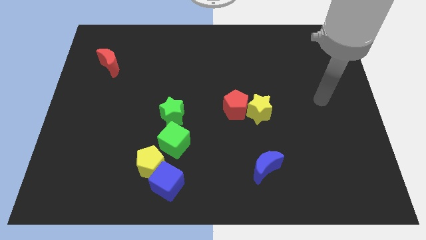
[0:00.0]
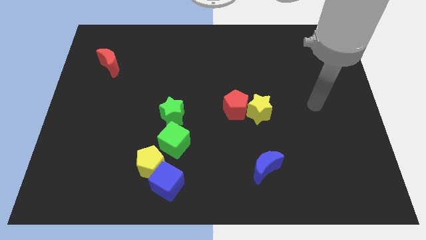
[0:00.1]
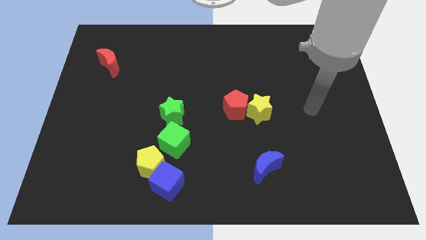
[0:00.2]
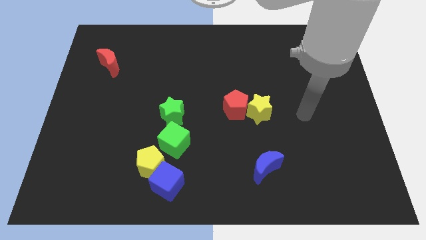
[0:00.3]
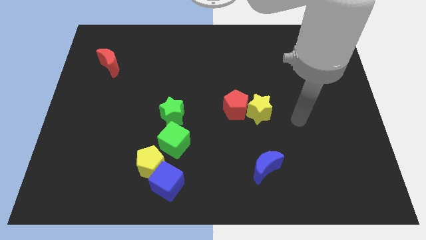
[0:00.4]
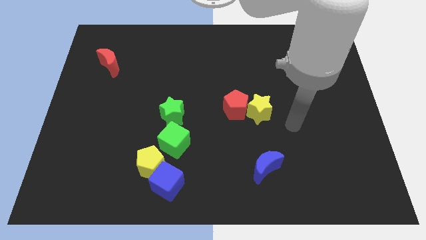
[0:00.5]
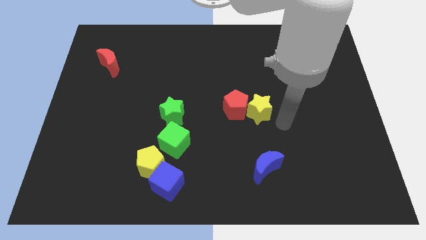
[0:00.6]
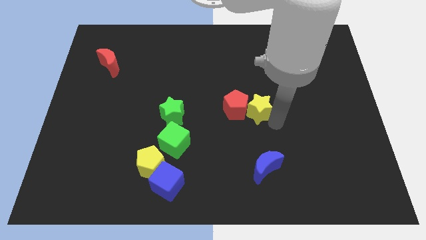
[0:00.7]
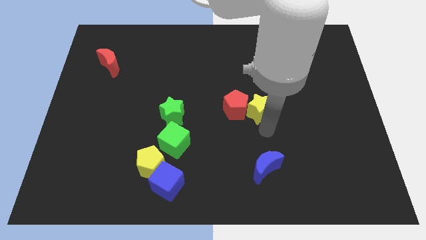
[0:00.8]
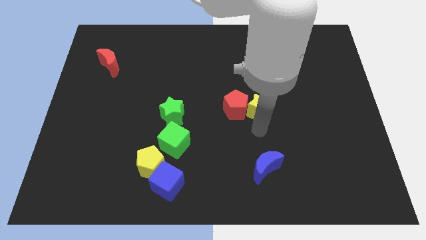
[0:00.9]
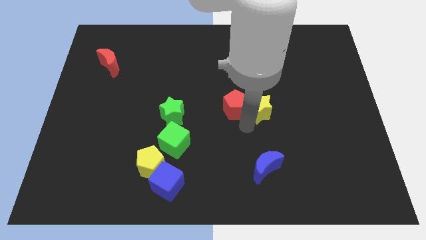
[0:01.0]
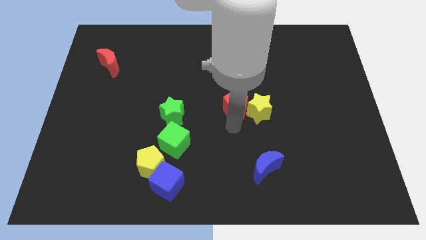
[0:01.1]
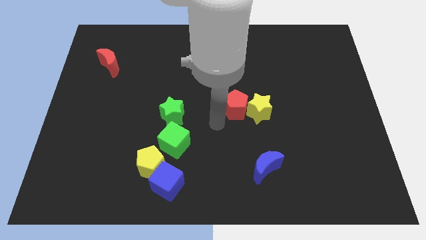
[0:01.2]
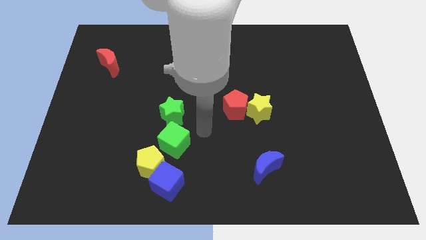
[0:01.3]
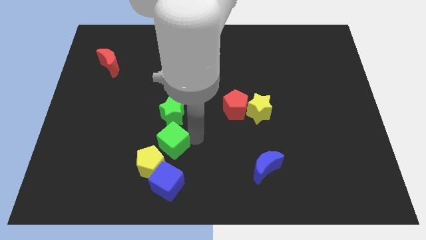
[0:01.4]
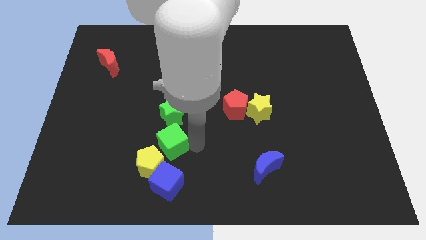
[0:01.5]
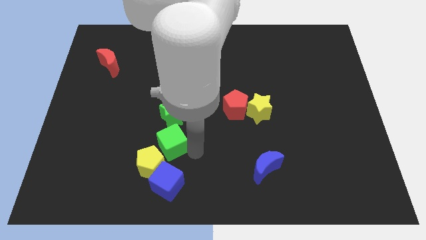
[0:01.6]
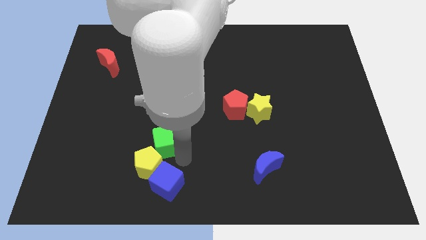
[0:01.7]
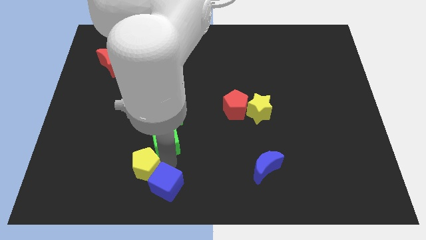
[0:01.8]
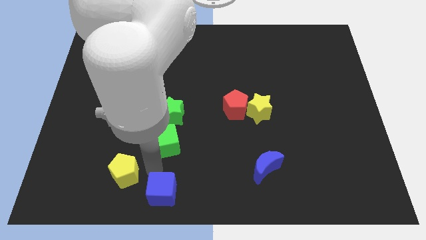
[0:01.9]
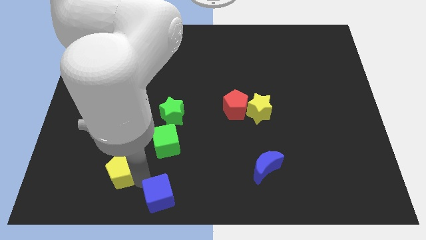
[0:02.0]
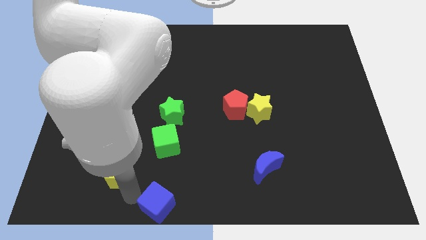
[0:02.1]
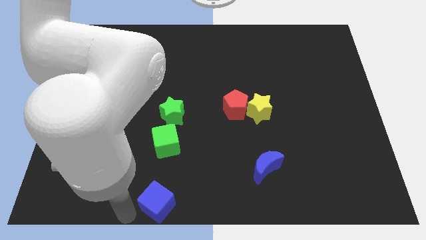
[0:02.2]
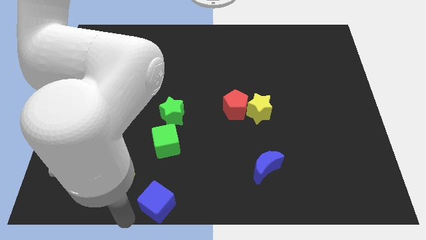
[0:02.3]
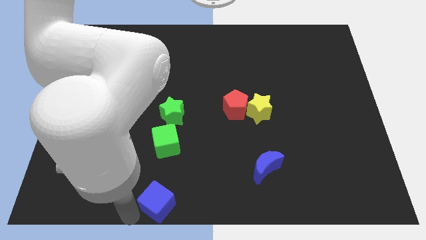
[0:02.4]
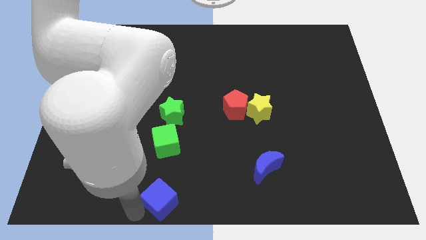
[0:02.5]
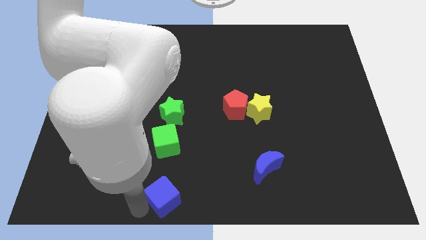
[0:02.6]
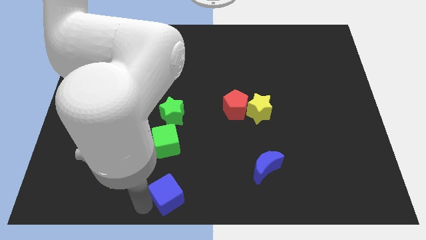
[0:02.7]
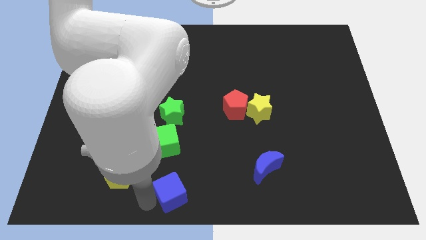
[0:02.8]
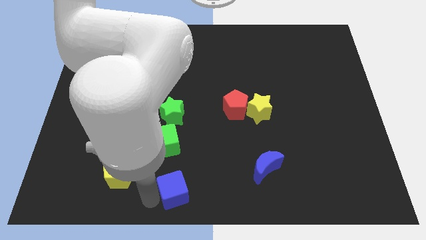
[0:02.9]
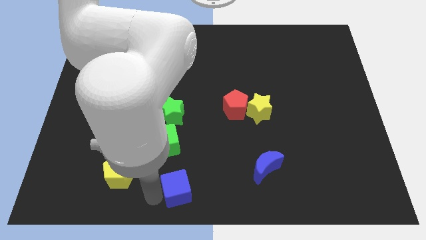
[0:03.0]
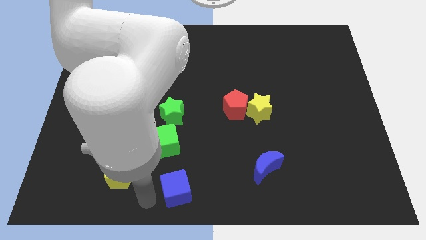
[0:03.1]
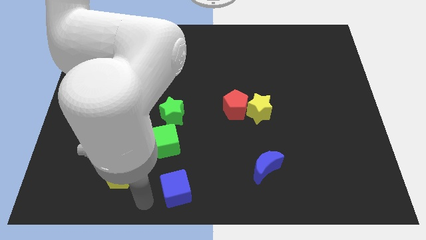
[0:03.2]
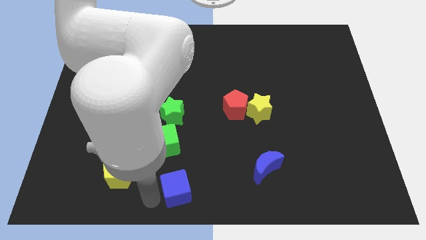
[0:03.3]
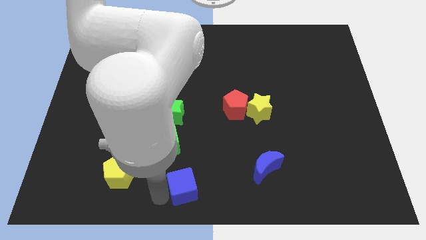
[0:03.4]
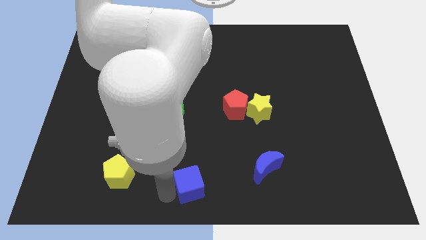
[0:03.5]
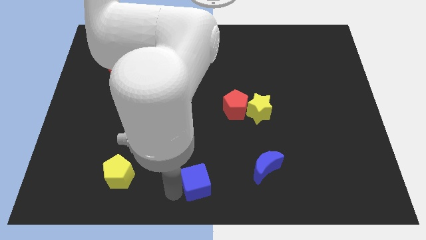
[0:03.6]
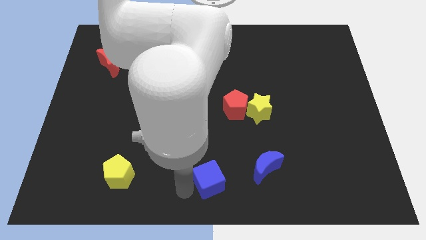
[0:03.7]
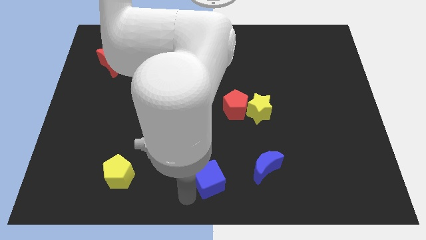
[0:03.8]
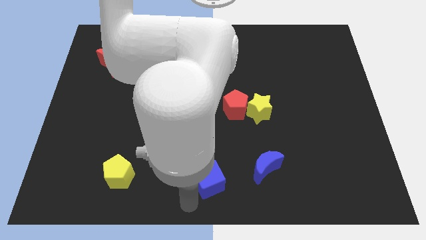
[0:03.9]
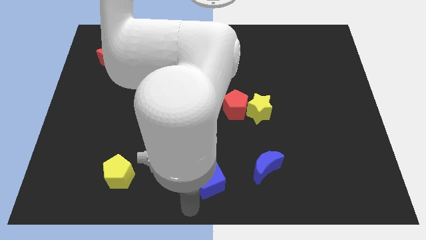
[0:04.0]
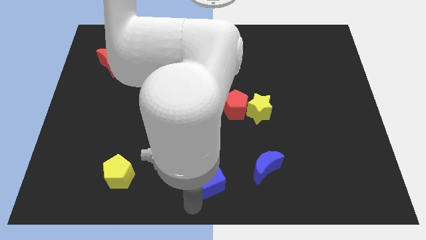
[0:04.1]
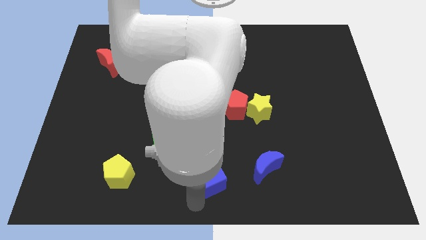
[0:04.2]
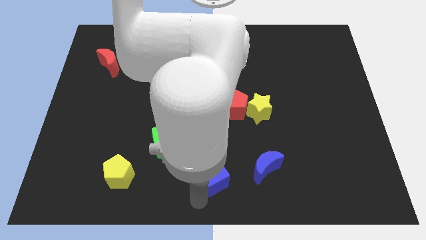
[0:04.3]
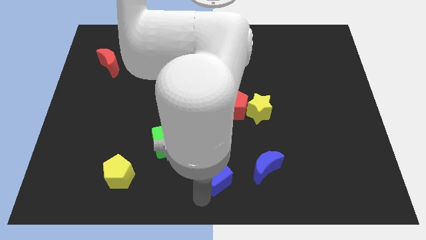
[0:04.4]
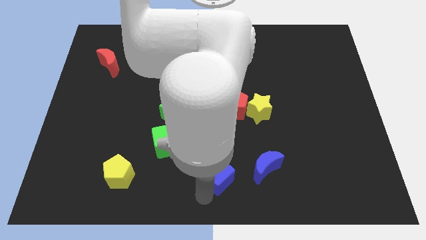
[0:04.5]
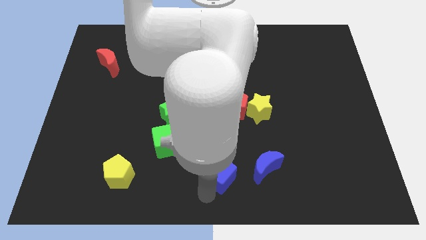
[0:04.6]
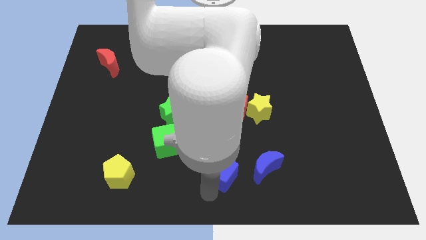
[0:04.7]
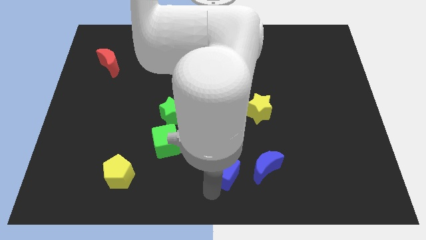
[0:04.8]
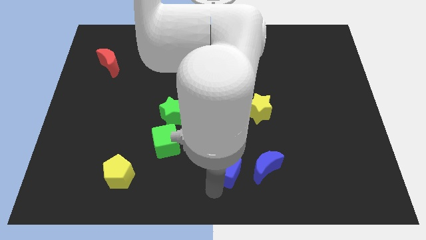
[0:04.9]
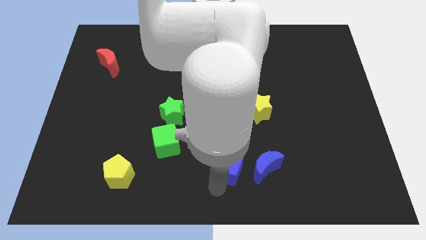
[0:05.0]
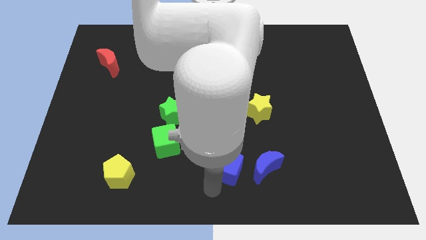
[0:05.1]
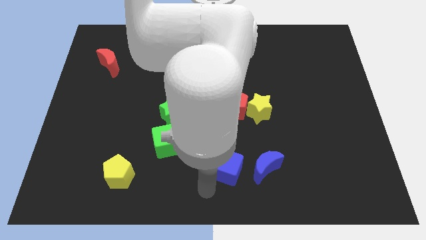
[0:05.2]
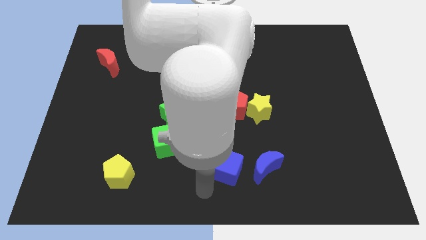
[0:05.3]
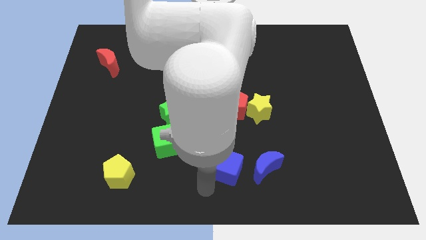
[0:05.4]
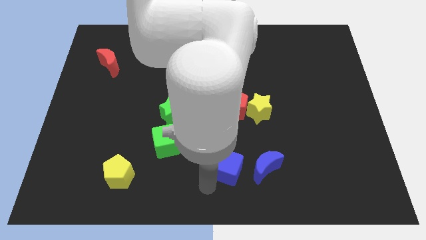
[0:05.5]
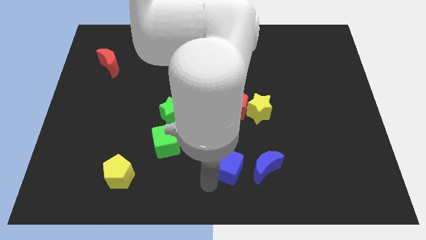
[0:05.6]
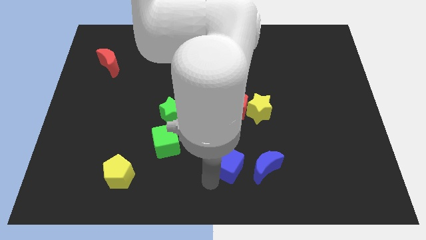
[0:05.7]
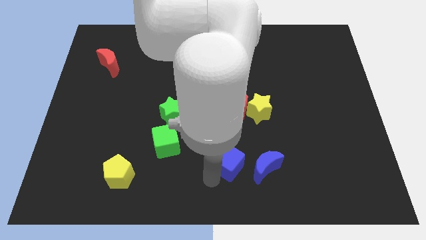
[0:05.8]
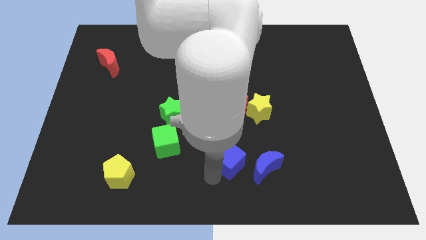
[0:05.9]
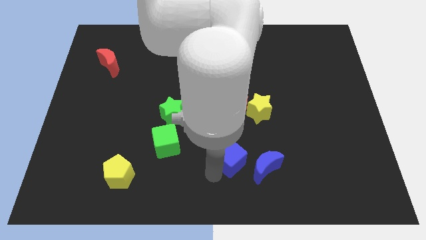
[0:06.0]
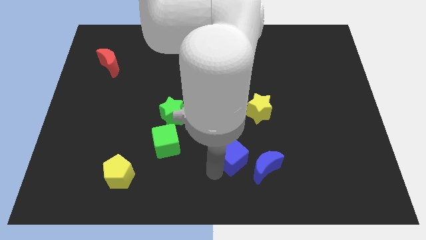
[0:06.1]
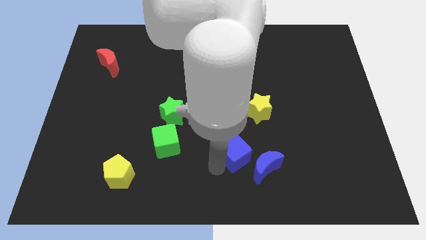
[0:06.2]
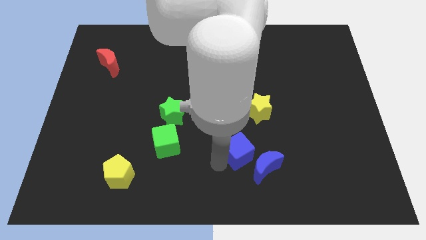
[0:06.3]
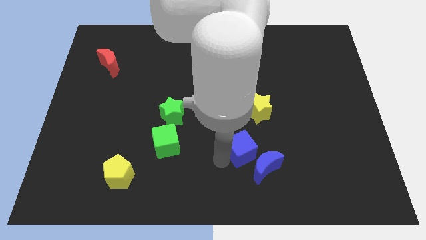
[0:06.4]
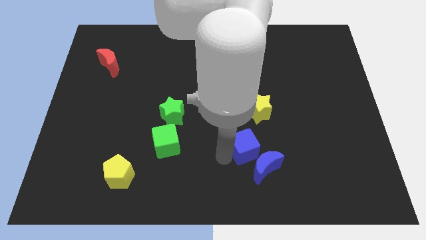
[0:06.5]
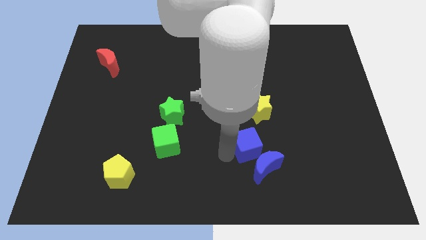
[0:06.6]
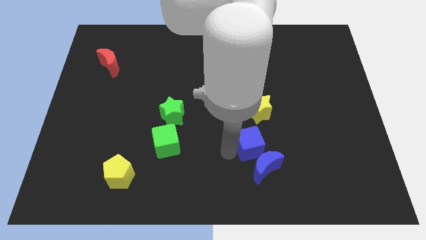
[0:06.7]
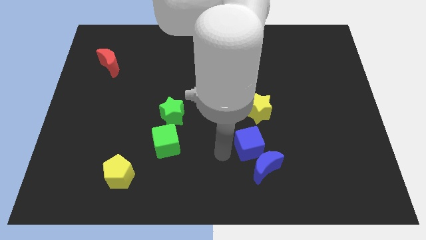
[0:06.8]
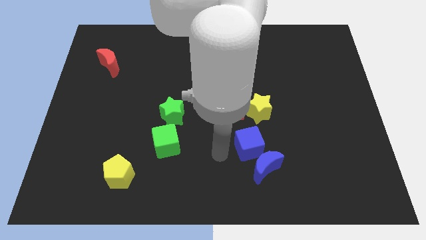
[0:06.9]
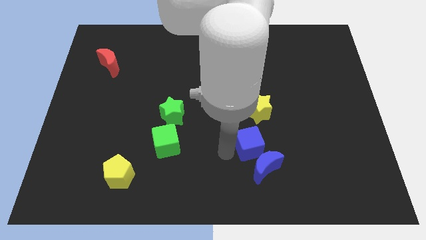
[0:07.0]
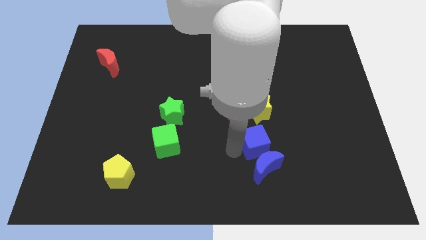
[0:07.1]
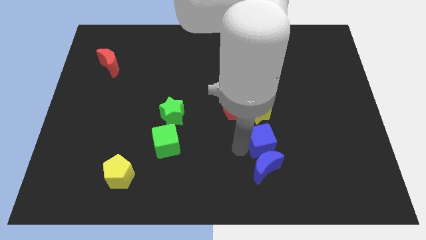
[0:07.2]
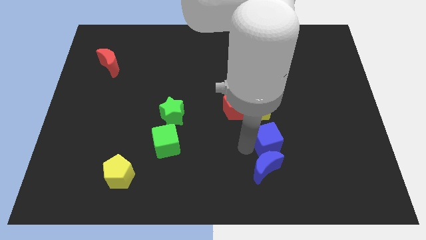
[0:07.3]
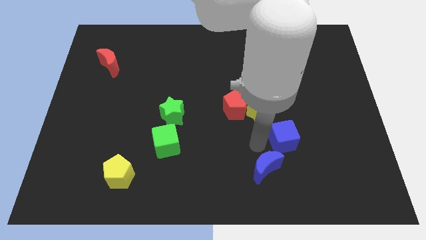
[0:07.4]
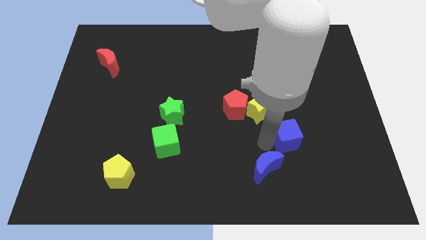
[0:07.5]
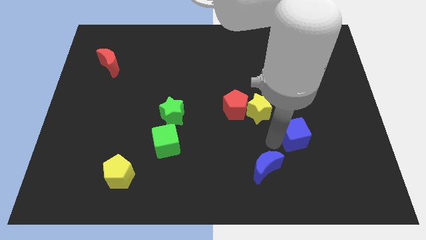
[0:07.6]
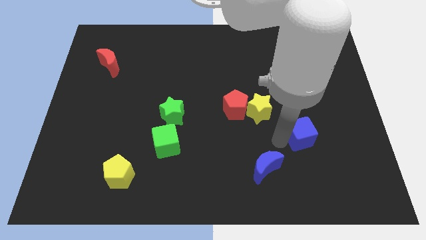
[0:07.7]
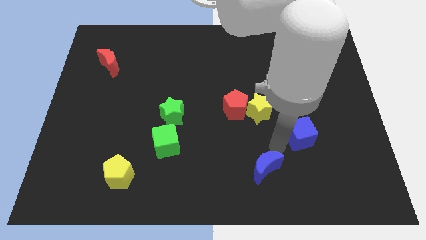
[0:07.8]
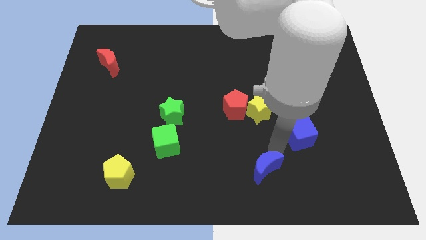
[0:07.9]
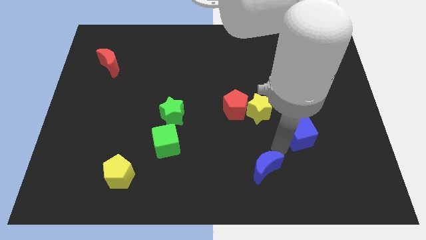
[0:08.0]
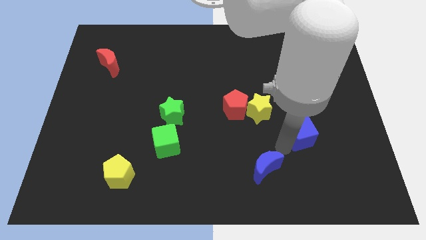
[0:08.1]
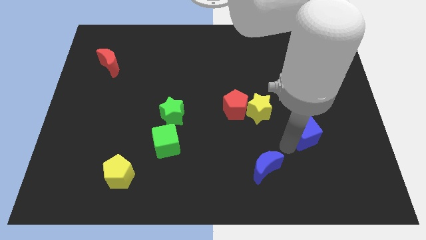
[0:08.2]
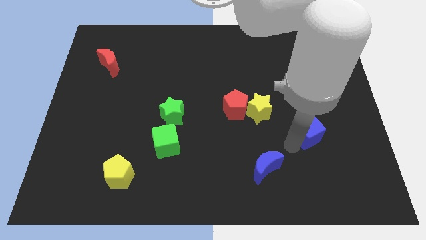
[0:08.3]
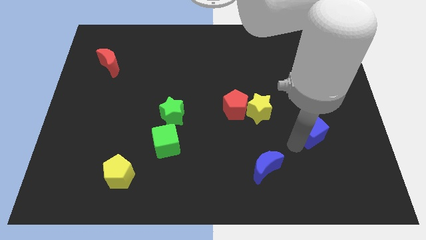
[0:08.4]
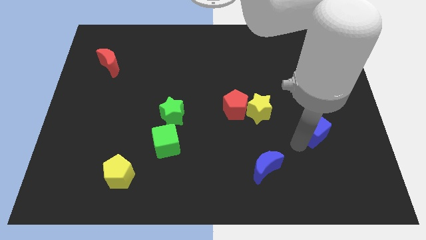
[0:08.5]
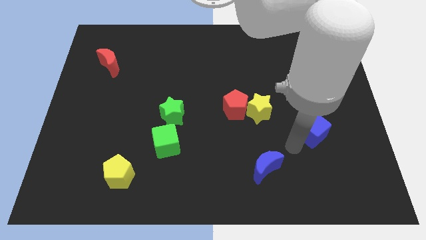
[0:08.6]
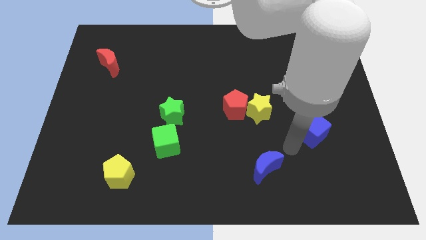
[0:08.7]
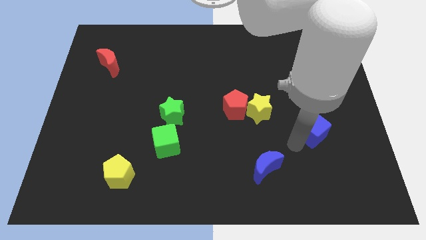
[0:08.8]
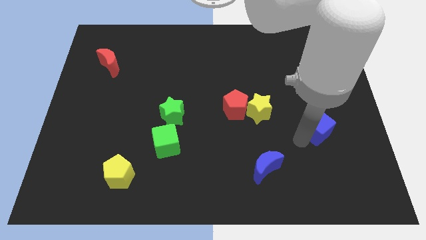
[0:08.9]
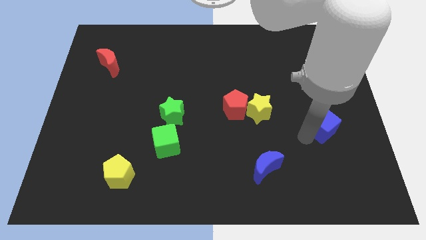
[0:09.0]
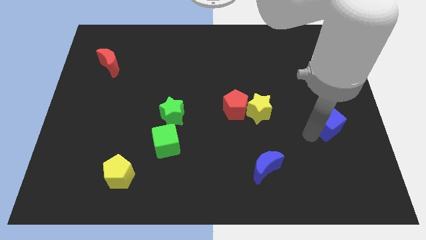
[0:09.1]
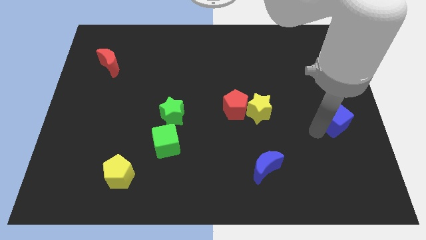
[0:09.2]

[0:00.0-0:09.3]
put the blue cube to the center right
